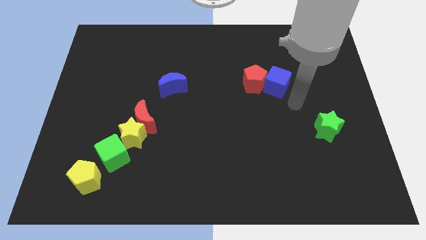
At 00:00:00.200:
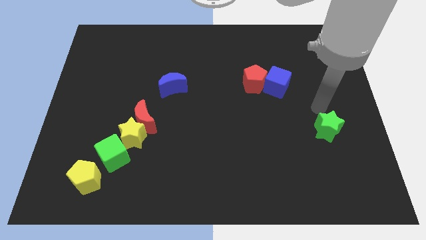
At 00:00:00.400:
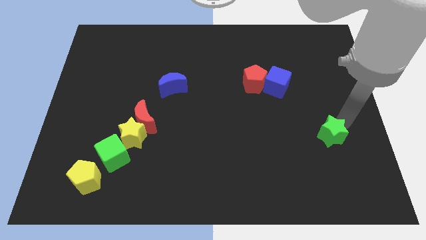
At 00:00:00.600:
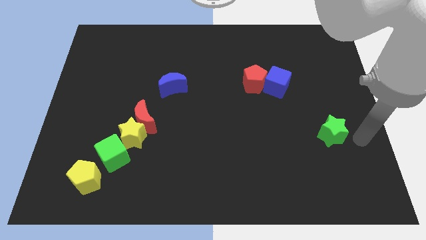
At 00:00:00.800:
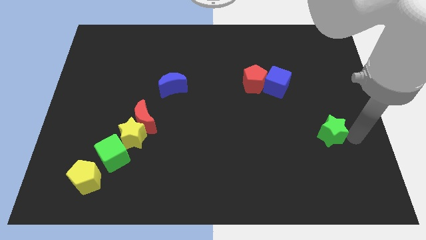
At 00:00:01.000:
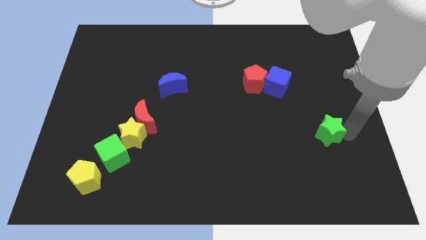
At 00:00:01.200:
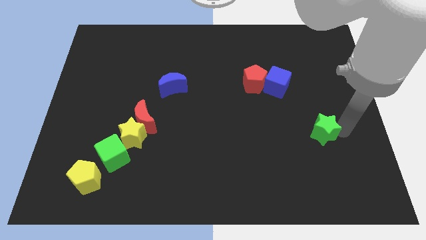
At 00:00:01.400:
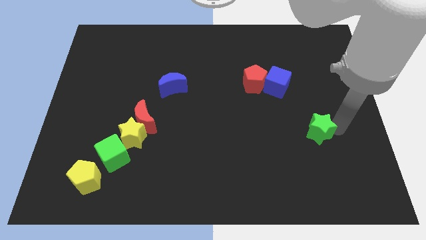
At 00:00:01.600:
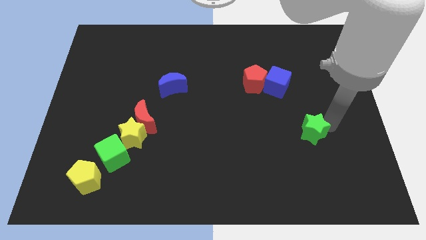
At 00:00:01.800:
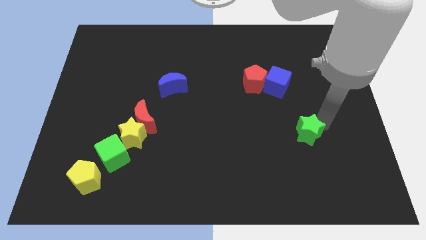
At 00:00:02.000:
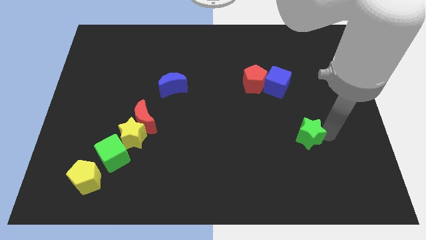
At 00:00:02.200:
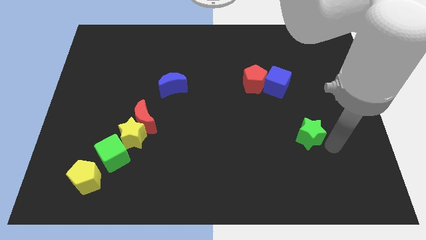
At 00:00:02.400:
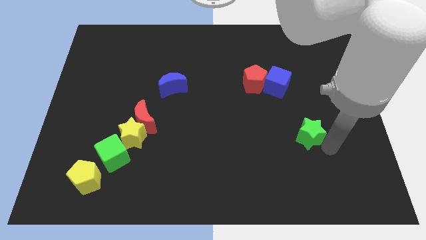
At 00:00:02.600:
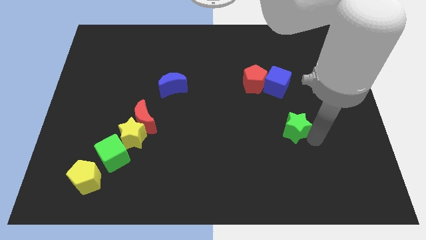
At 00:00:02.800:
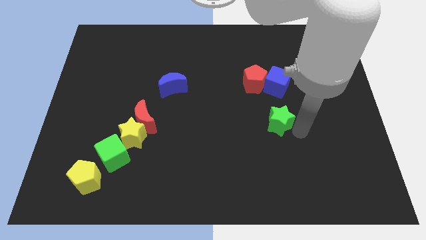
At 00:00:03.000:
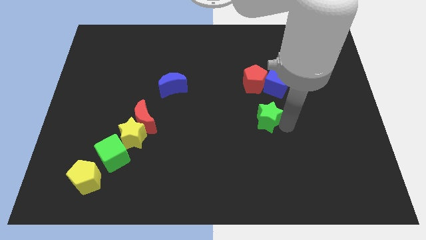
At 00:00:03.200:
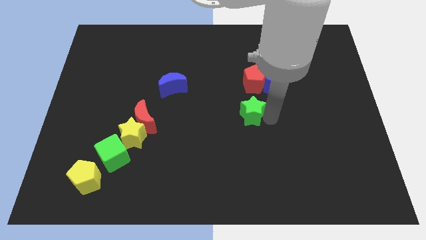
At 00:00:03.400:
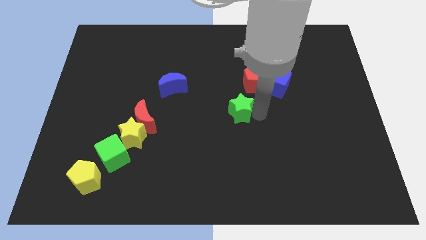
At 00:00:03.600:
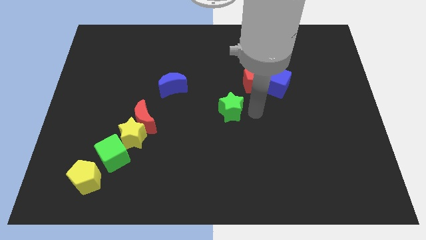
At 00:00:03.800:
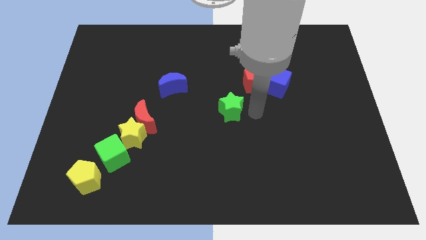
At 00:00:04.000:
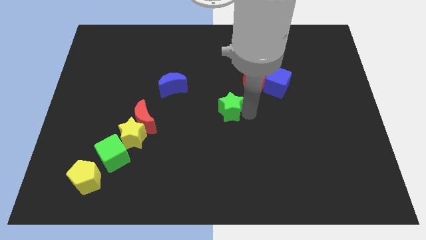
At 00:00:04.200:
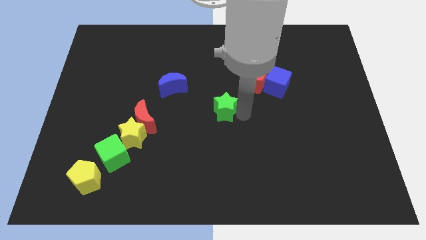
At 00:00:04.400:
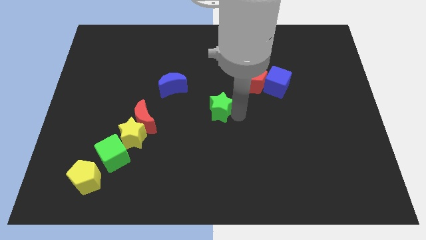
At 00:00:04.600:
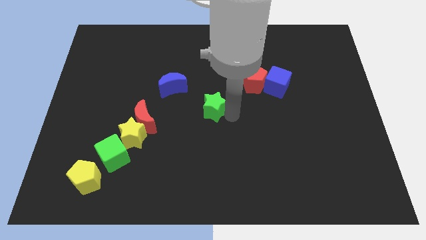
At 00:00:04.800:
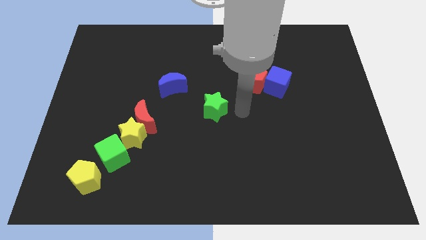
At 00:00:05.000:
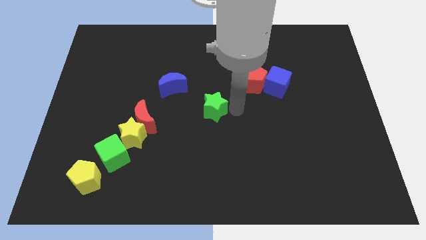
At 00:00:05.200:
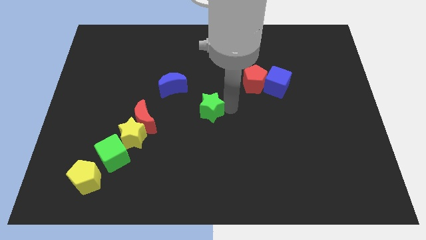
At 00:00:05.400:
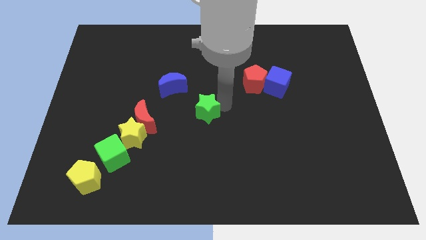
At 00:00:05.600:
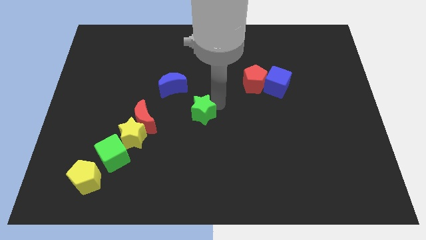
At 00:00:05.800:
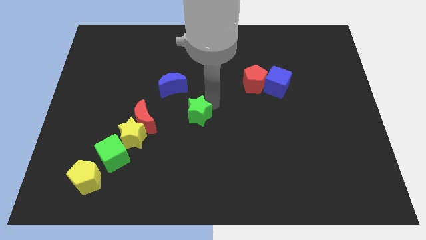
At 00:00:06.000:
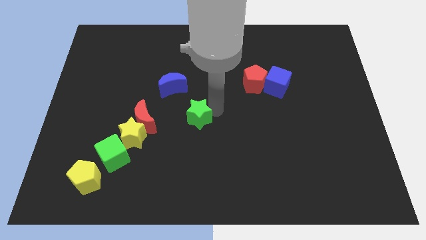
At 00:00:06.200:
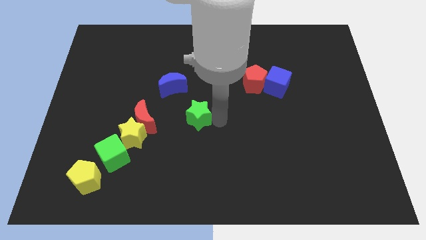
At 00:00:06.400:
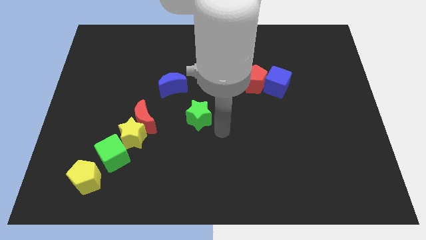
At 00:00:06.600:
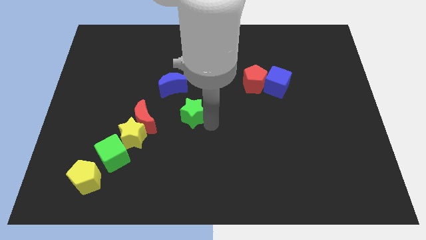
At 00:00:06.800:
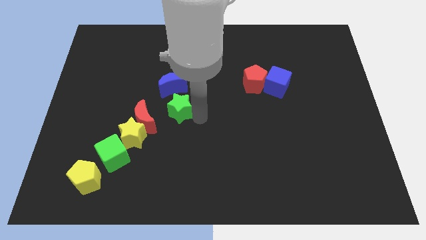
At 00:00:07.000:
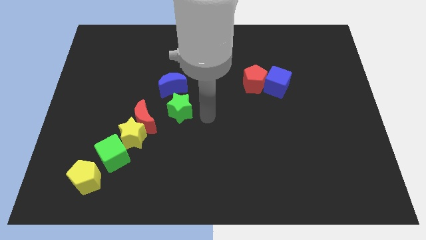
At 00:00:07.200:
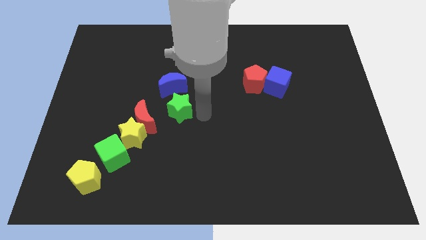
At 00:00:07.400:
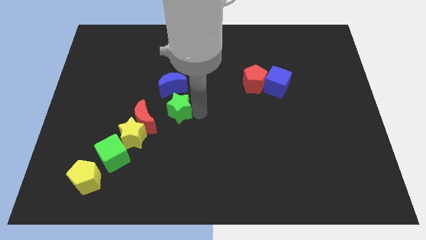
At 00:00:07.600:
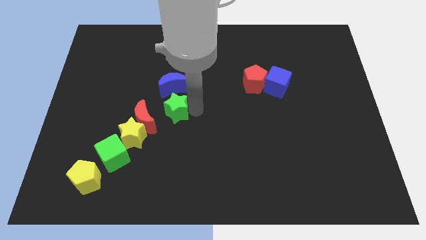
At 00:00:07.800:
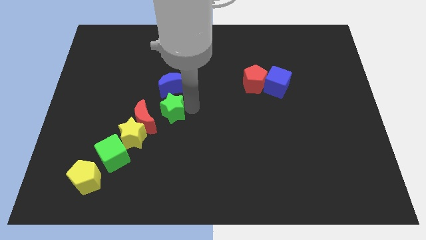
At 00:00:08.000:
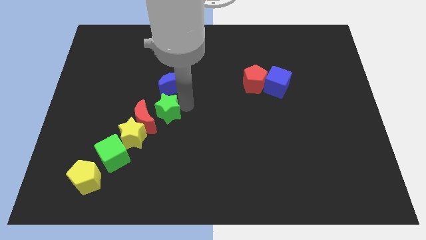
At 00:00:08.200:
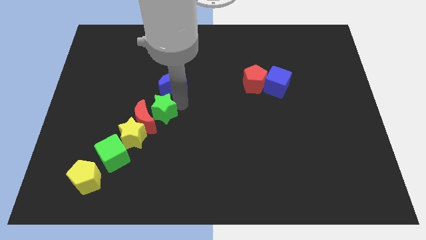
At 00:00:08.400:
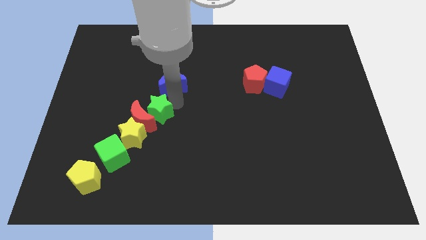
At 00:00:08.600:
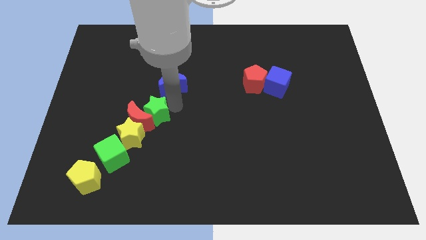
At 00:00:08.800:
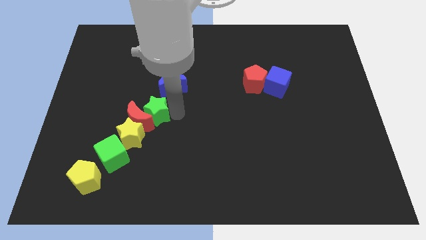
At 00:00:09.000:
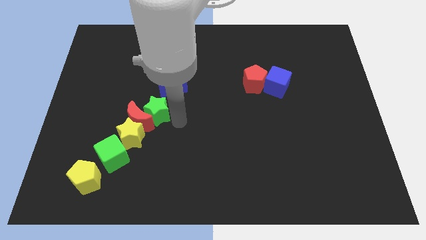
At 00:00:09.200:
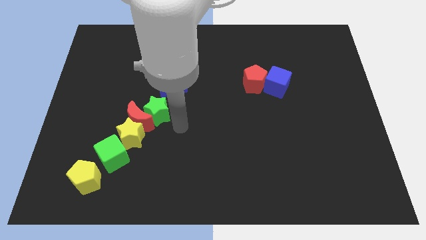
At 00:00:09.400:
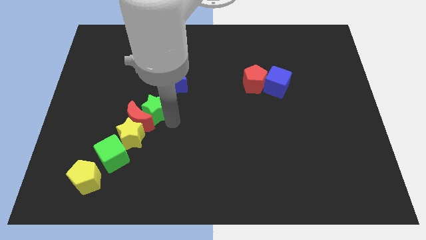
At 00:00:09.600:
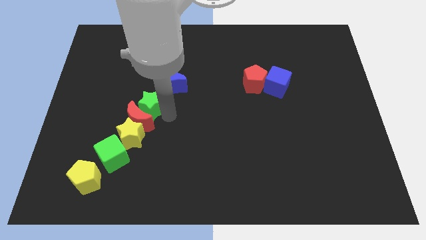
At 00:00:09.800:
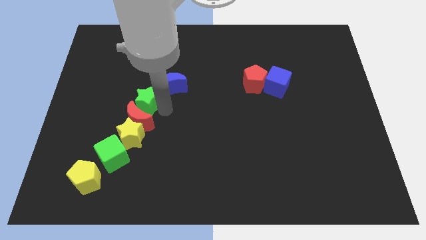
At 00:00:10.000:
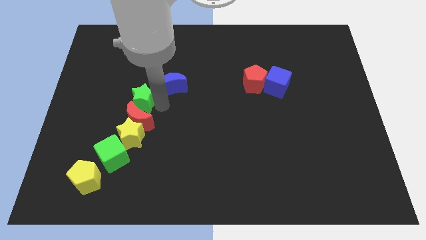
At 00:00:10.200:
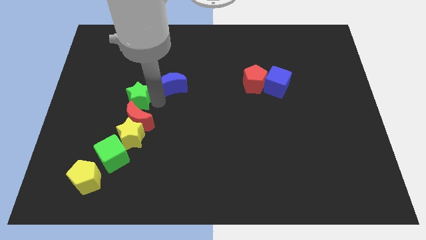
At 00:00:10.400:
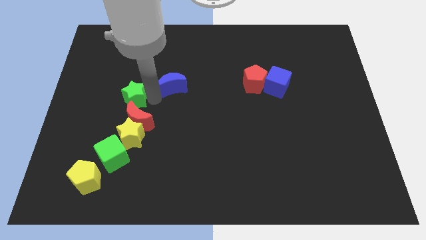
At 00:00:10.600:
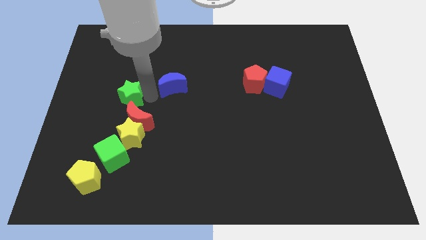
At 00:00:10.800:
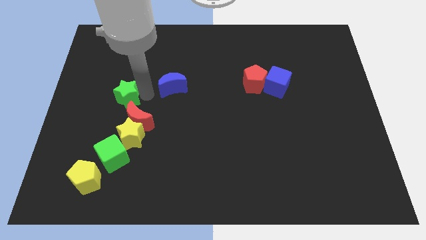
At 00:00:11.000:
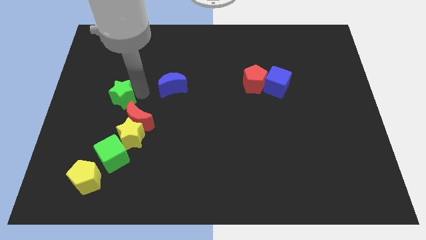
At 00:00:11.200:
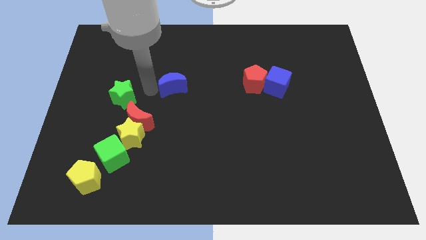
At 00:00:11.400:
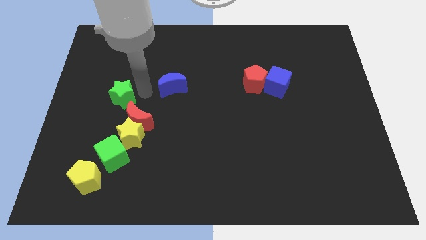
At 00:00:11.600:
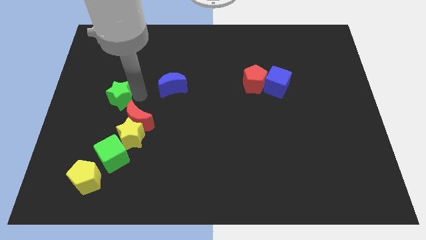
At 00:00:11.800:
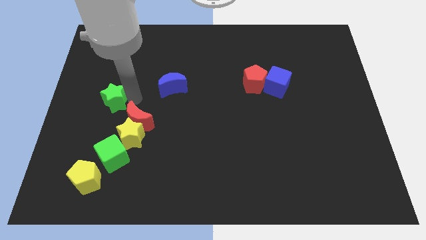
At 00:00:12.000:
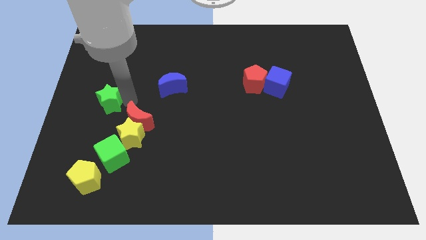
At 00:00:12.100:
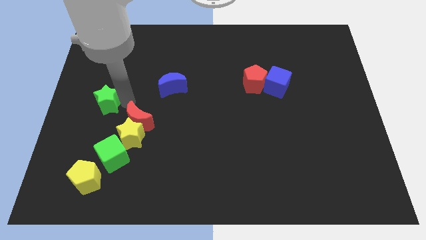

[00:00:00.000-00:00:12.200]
put the green star to the left side of the board
